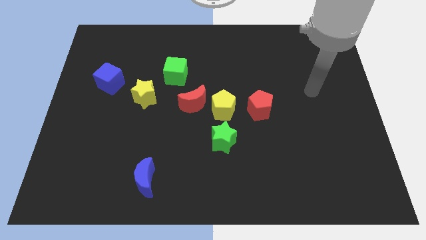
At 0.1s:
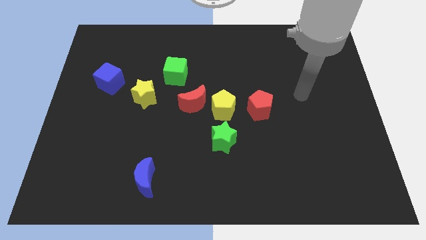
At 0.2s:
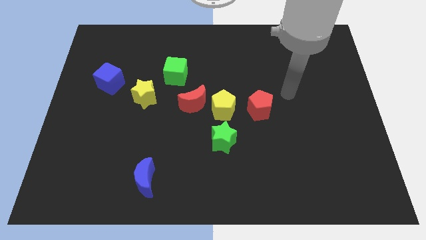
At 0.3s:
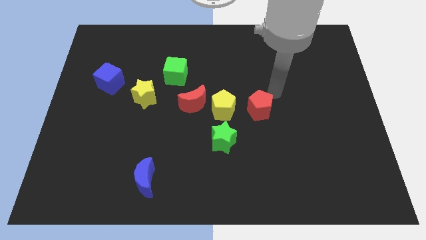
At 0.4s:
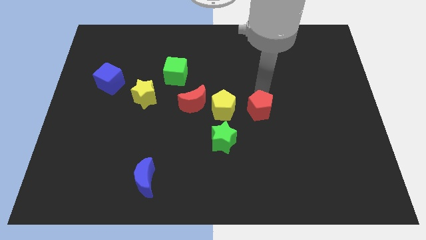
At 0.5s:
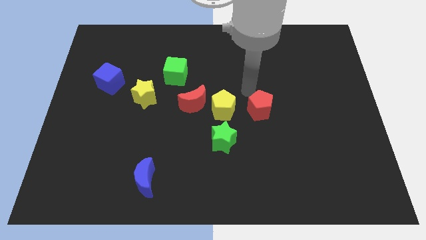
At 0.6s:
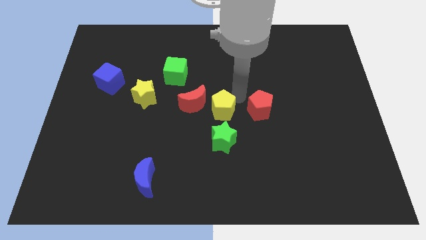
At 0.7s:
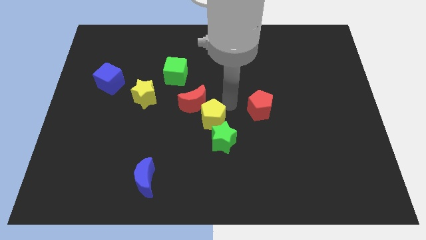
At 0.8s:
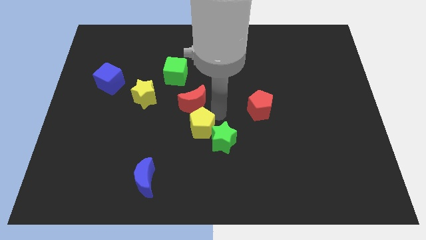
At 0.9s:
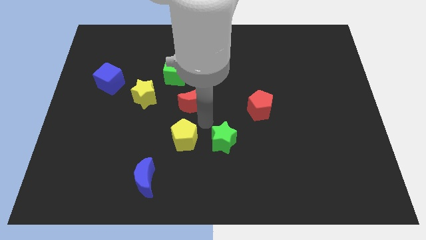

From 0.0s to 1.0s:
pull the red moon apart from the yellow pentagon

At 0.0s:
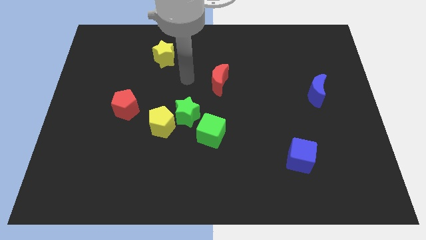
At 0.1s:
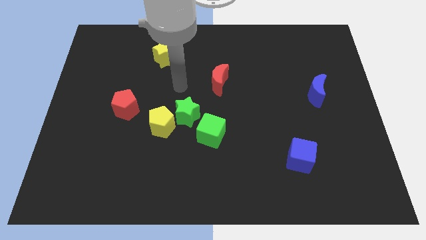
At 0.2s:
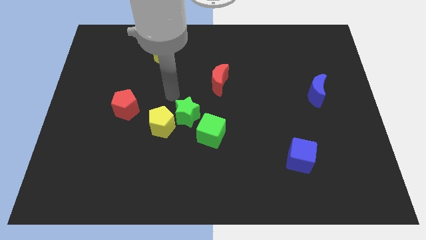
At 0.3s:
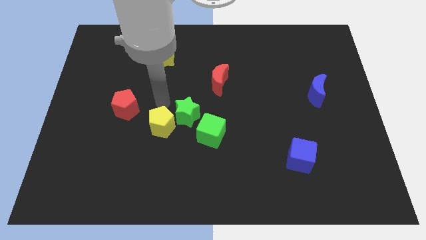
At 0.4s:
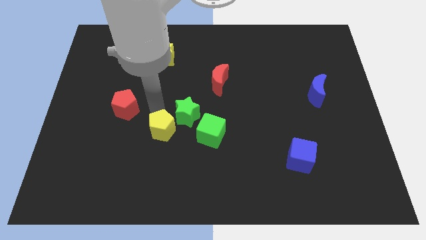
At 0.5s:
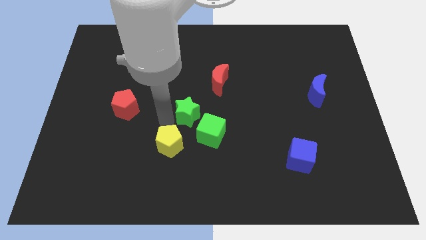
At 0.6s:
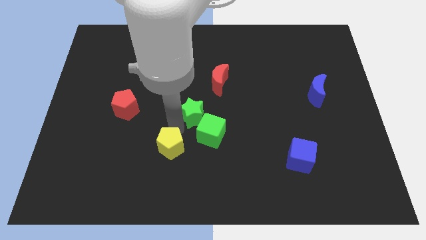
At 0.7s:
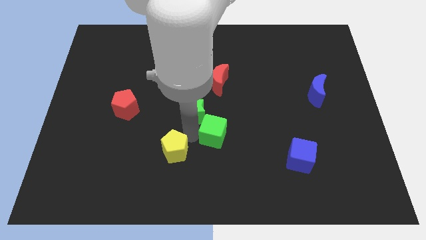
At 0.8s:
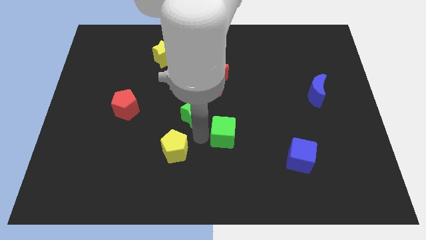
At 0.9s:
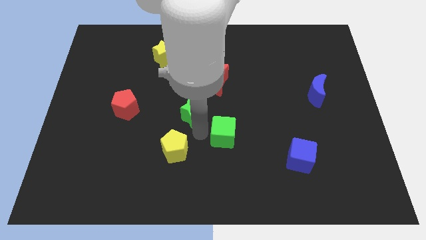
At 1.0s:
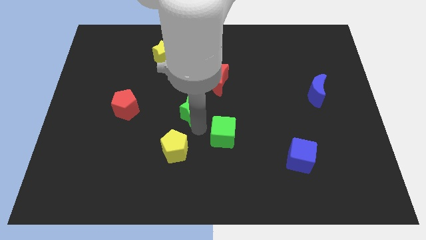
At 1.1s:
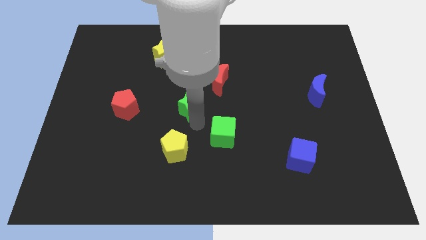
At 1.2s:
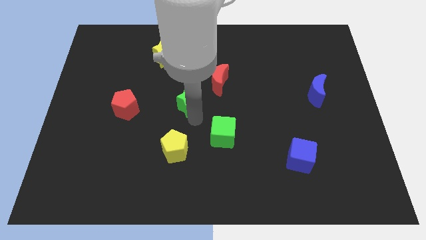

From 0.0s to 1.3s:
pull the green star apart from the yellow pentagon and green cube

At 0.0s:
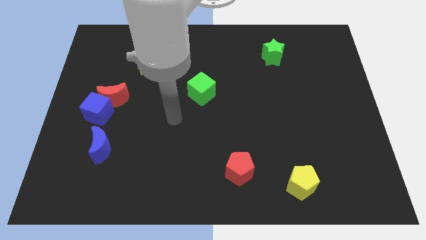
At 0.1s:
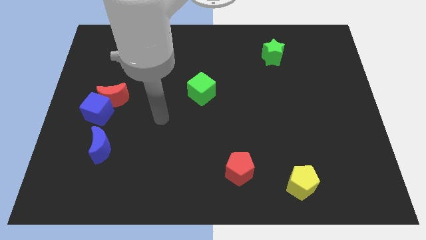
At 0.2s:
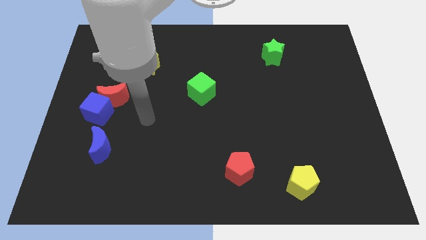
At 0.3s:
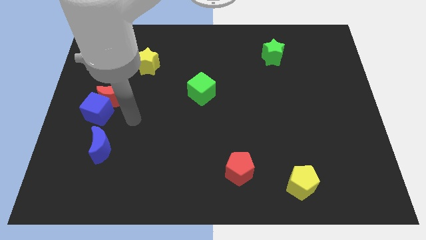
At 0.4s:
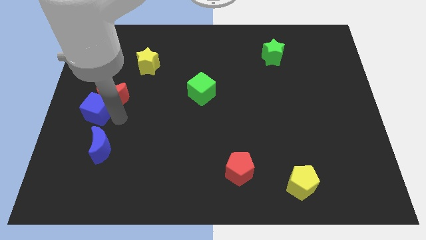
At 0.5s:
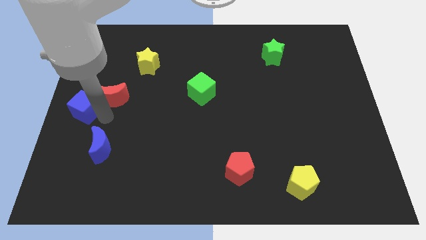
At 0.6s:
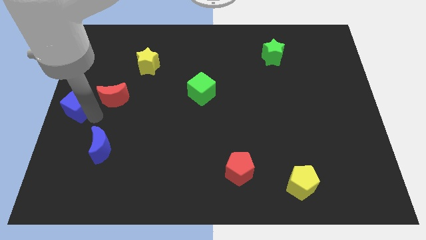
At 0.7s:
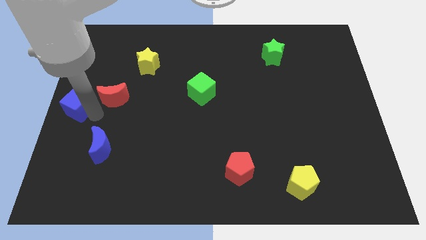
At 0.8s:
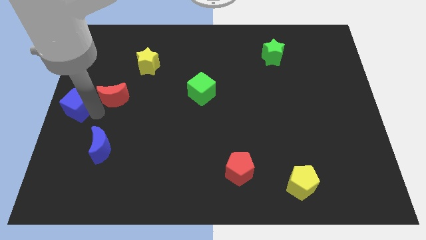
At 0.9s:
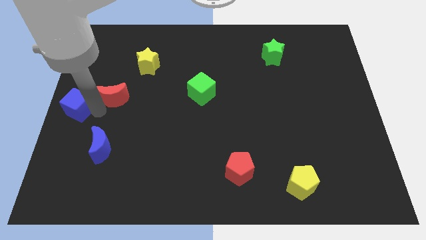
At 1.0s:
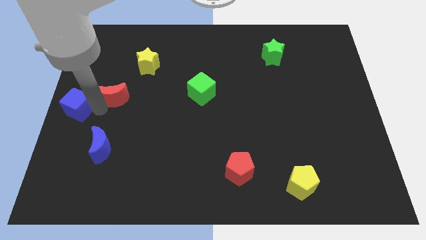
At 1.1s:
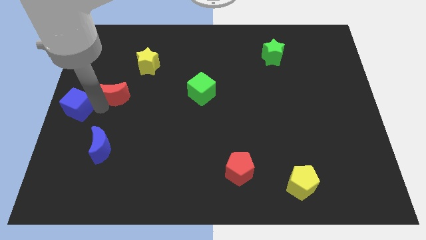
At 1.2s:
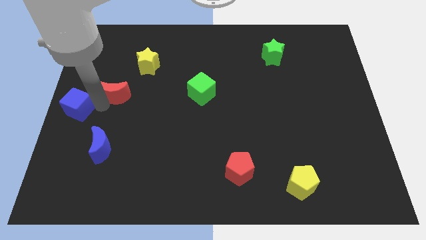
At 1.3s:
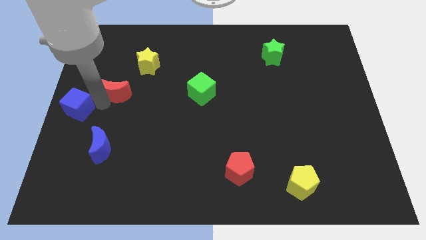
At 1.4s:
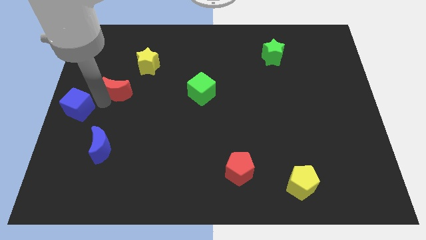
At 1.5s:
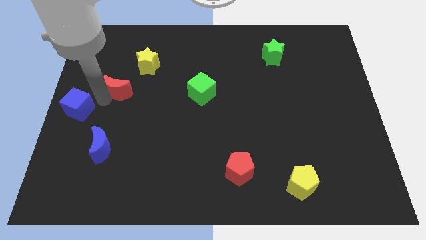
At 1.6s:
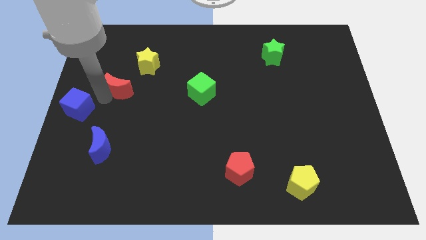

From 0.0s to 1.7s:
separate the red moon from the blue cube

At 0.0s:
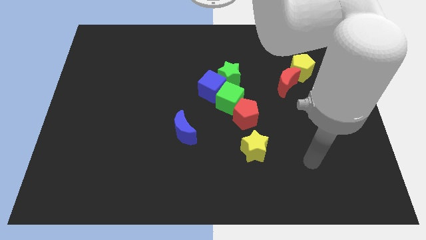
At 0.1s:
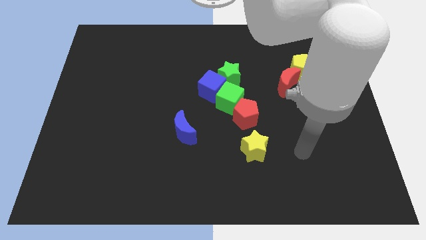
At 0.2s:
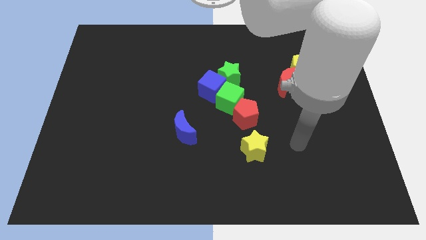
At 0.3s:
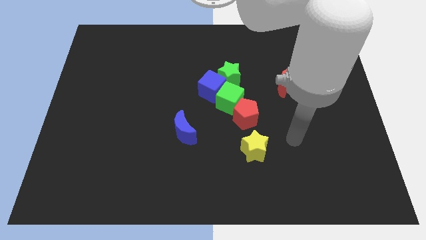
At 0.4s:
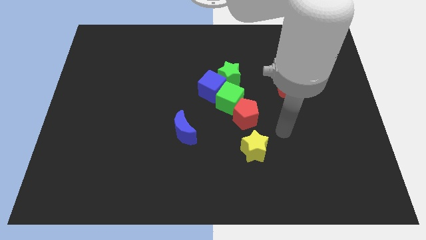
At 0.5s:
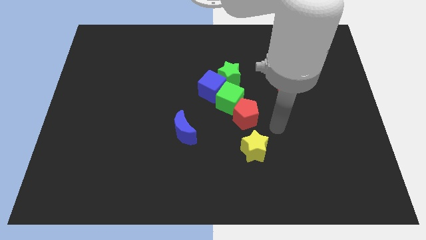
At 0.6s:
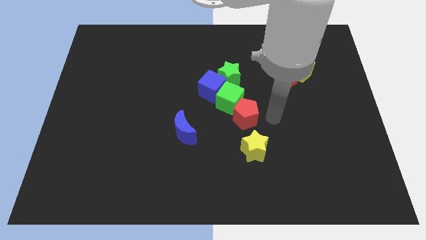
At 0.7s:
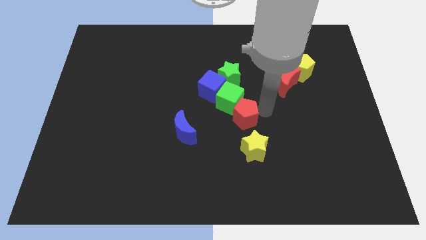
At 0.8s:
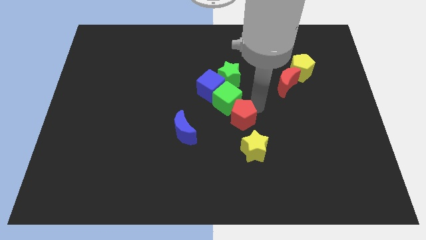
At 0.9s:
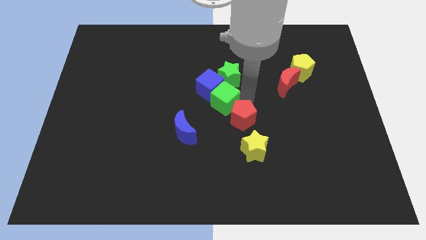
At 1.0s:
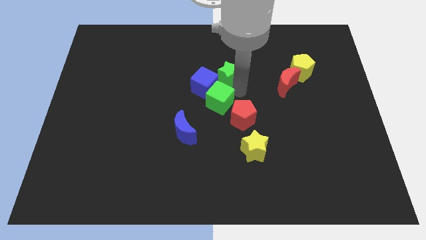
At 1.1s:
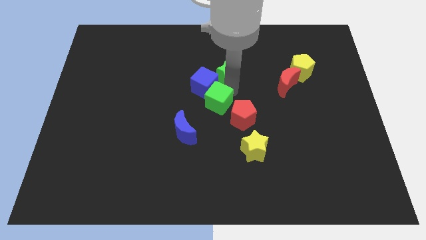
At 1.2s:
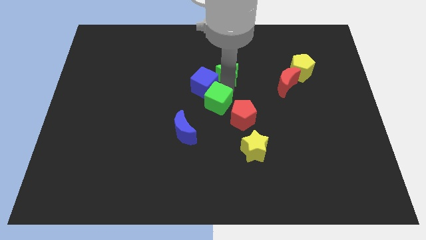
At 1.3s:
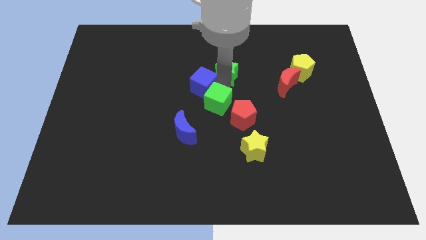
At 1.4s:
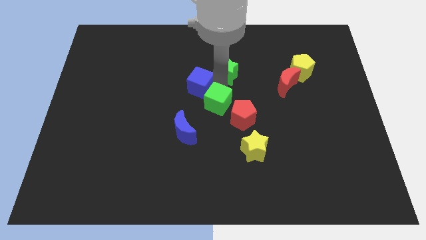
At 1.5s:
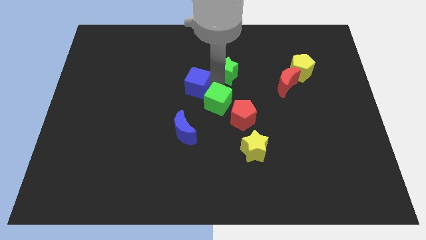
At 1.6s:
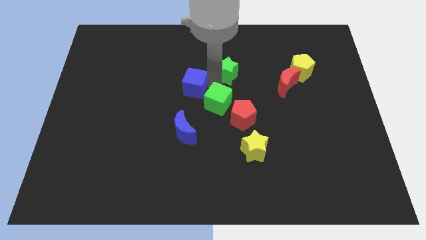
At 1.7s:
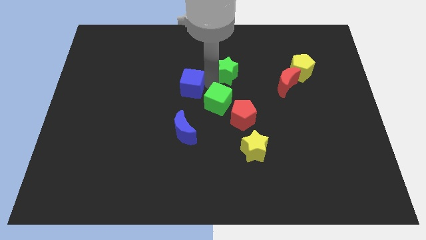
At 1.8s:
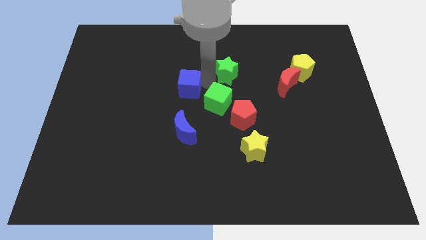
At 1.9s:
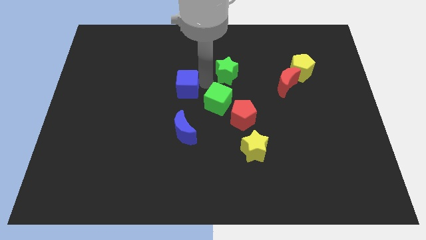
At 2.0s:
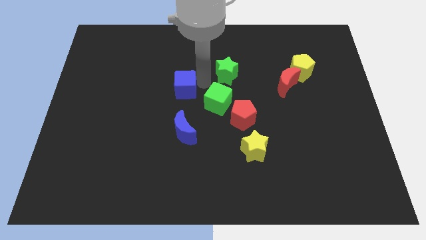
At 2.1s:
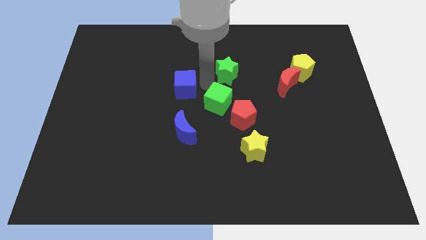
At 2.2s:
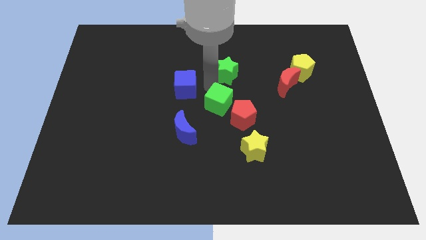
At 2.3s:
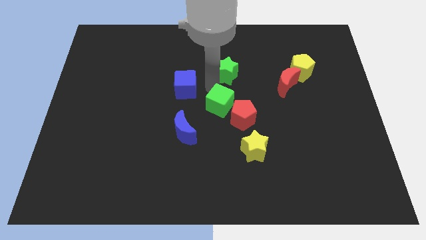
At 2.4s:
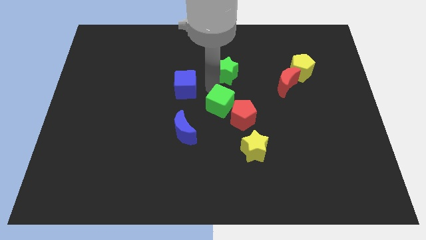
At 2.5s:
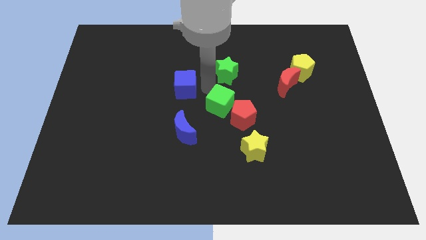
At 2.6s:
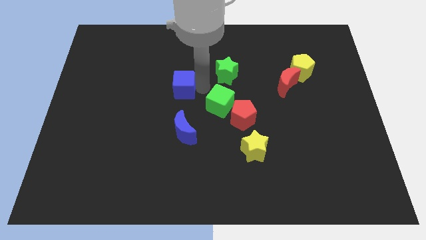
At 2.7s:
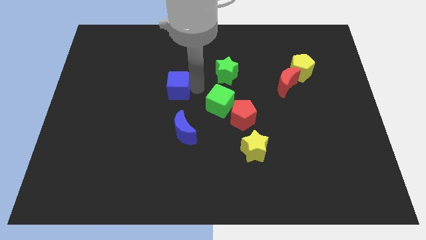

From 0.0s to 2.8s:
pull the blue cube apart from the green star and green cube

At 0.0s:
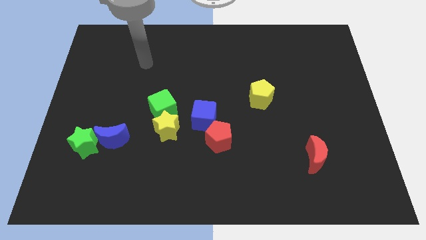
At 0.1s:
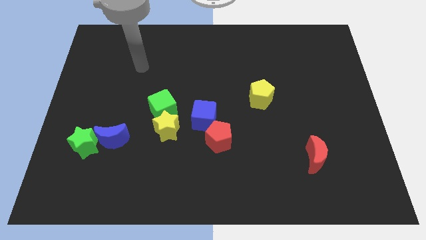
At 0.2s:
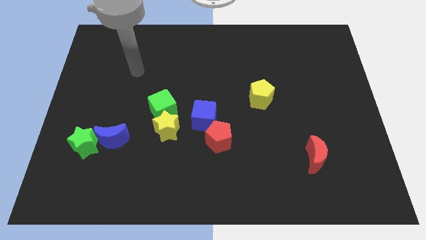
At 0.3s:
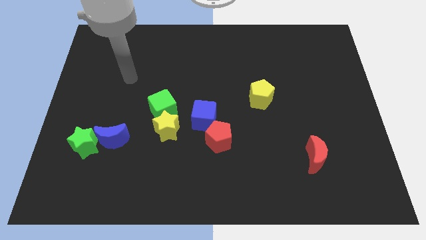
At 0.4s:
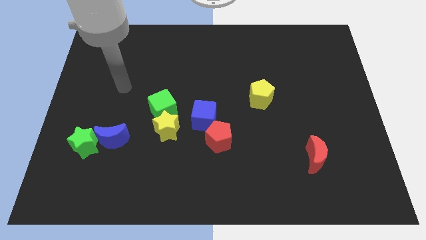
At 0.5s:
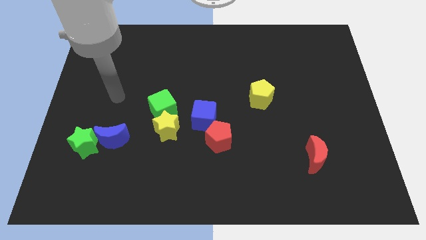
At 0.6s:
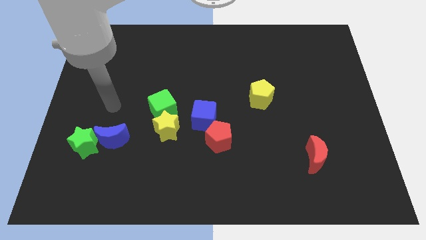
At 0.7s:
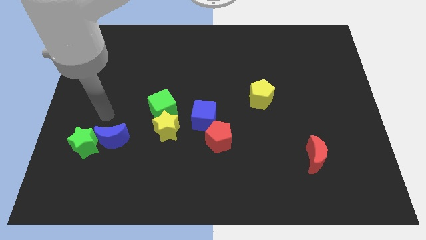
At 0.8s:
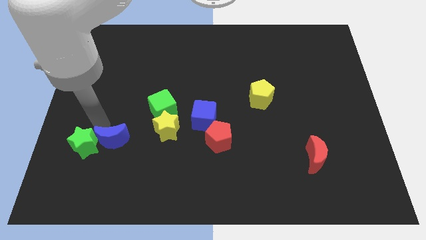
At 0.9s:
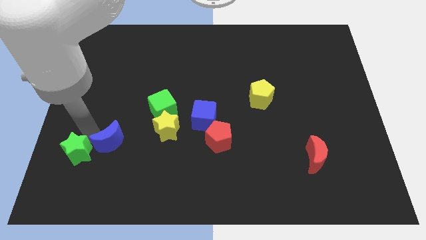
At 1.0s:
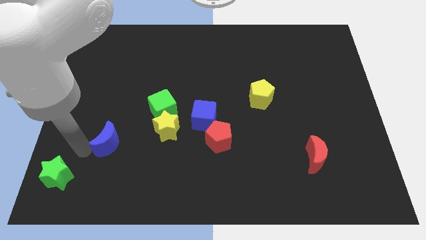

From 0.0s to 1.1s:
move the blue moon away from the green star

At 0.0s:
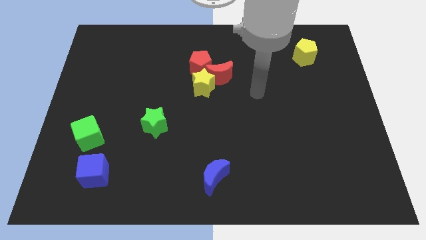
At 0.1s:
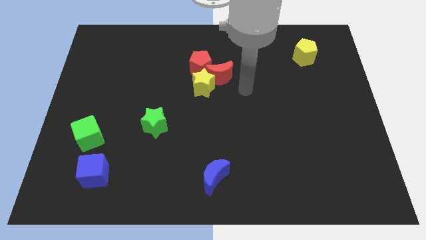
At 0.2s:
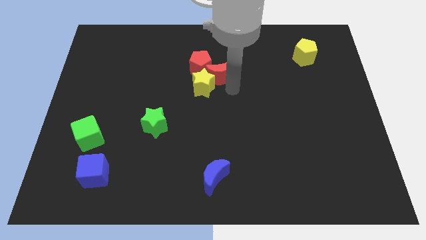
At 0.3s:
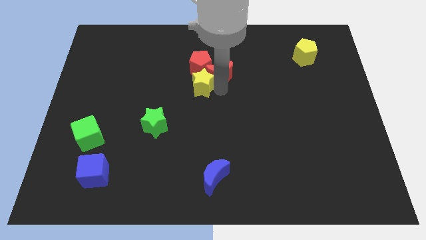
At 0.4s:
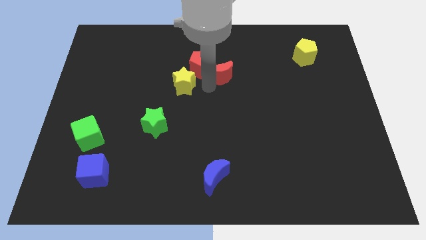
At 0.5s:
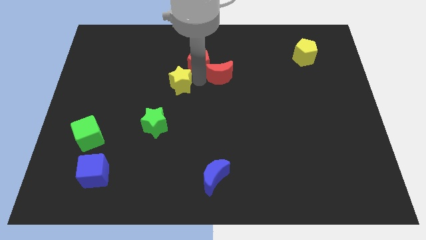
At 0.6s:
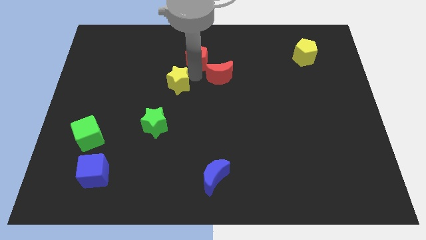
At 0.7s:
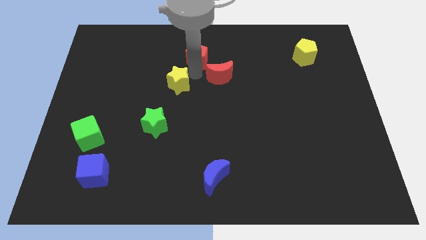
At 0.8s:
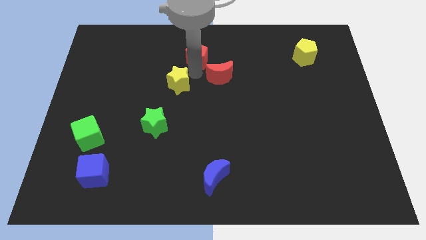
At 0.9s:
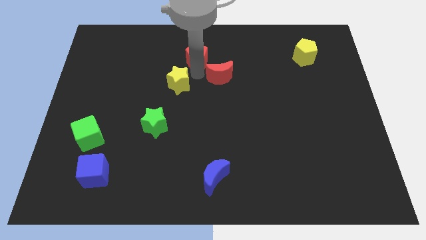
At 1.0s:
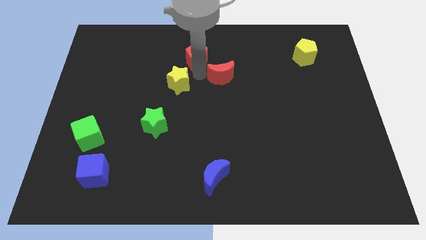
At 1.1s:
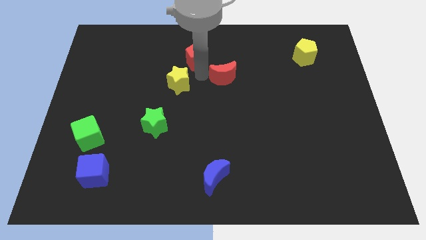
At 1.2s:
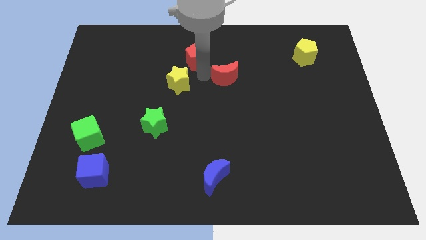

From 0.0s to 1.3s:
pull the red moon apart from the yellow star and red pentagon

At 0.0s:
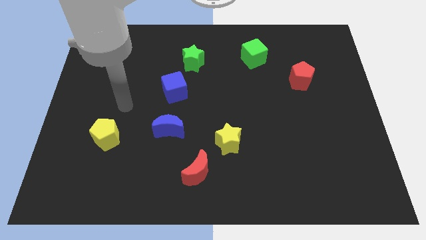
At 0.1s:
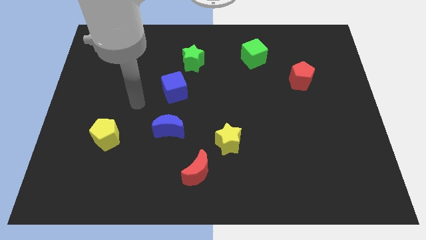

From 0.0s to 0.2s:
pull the red moon apart from the yellow star
